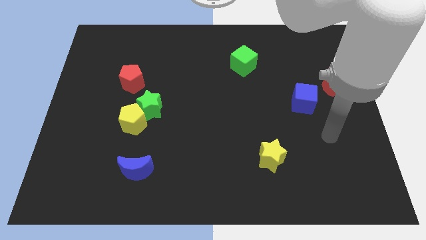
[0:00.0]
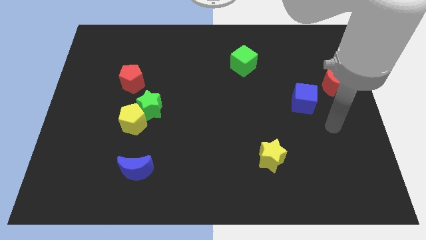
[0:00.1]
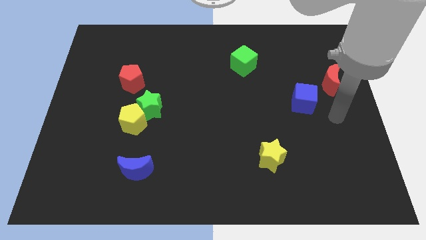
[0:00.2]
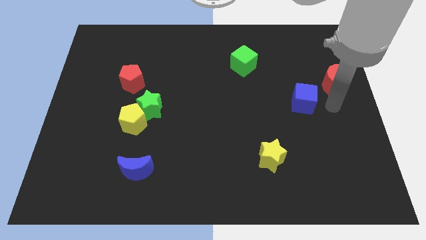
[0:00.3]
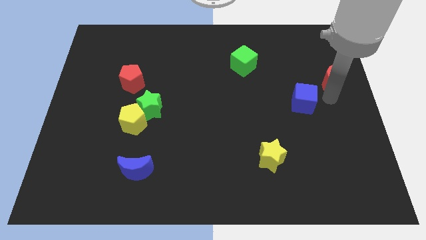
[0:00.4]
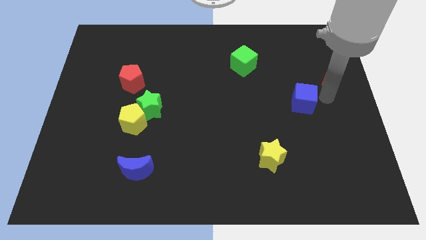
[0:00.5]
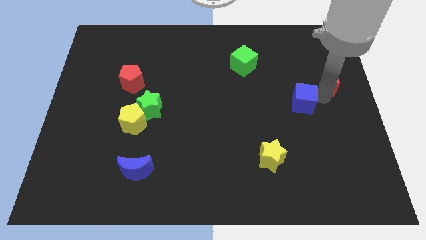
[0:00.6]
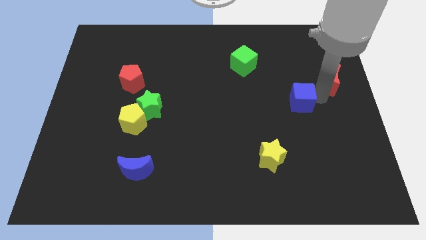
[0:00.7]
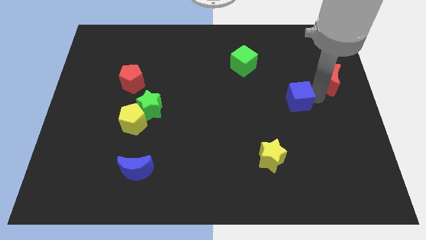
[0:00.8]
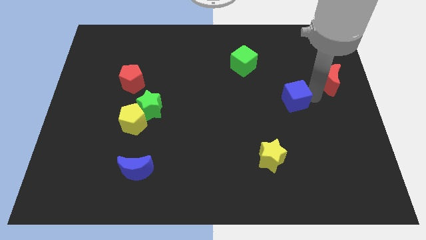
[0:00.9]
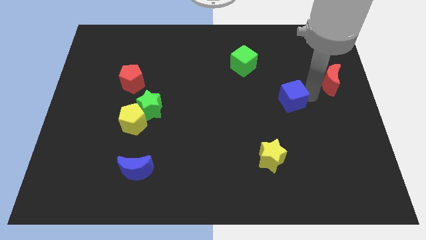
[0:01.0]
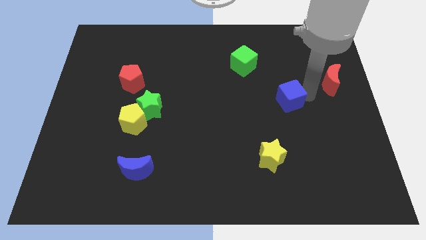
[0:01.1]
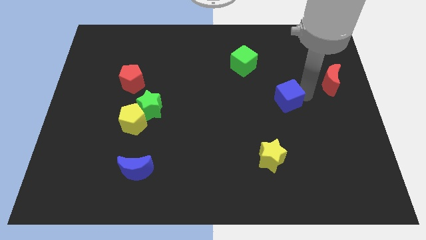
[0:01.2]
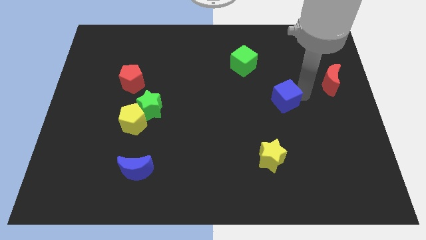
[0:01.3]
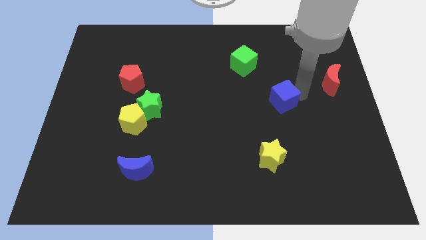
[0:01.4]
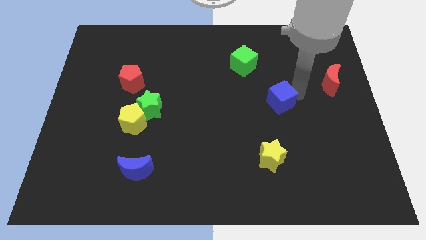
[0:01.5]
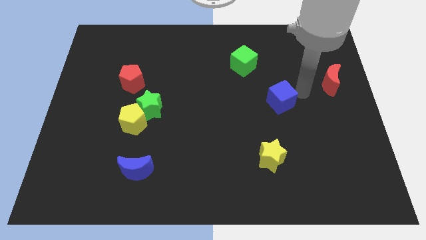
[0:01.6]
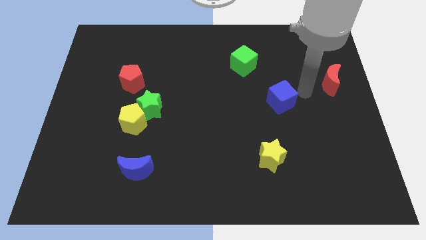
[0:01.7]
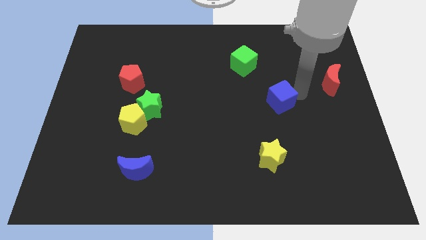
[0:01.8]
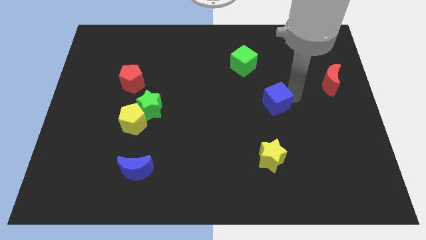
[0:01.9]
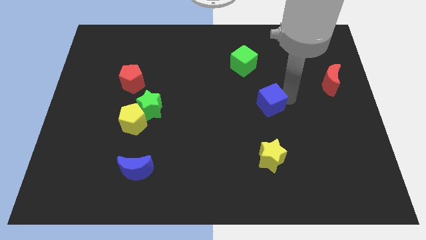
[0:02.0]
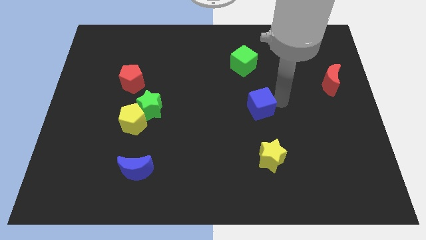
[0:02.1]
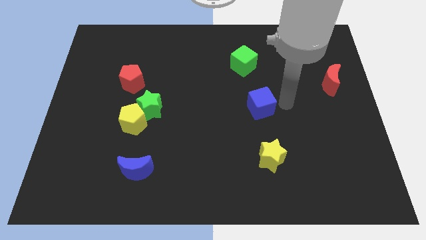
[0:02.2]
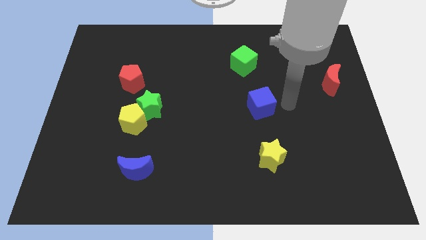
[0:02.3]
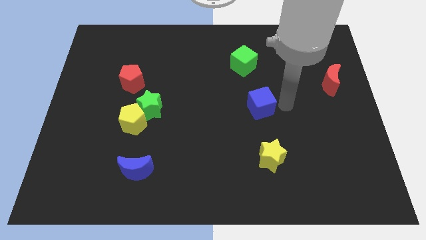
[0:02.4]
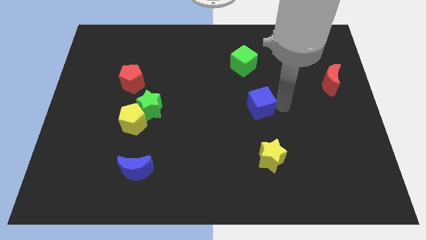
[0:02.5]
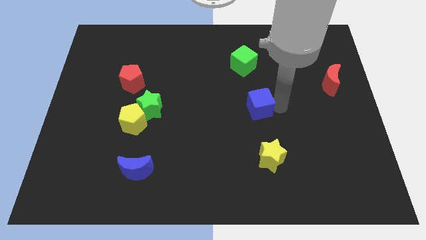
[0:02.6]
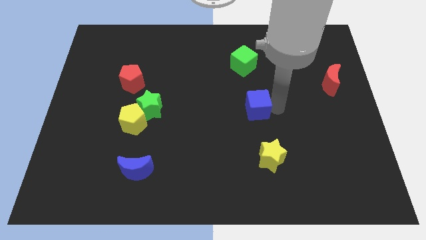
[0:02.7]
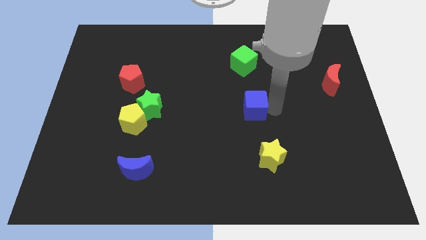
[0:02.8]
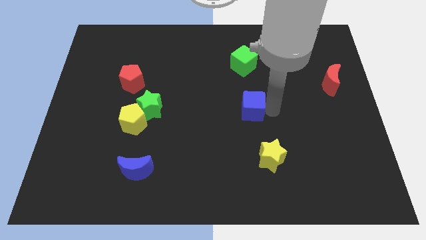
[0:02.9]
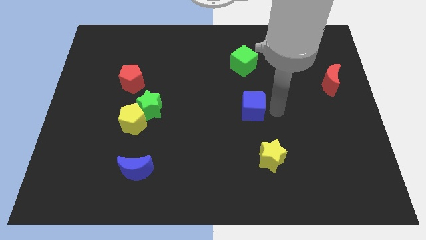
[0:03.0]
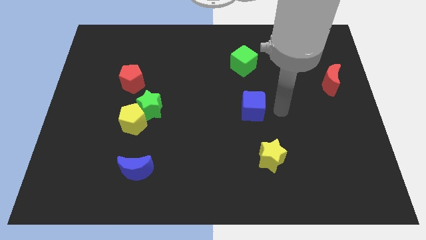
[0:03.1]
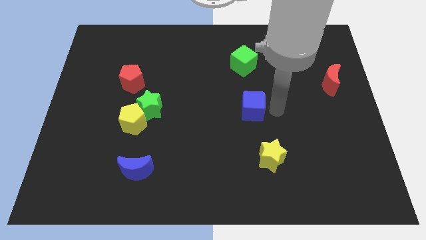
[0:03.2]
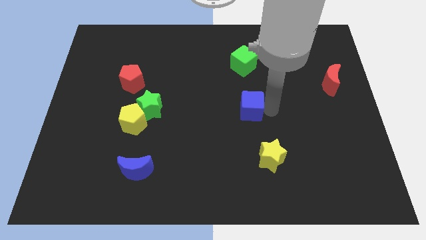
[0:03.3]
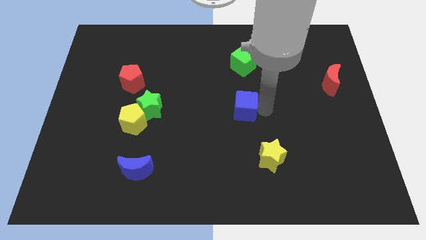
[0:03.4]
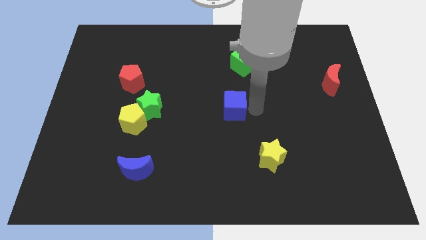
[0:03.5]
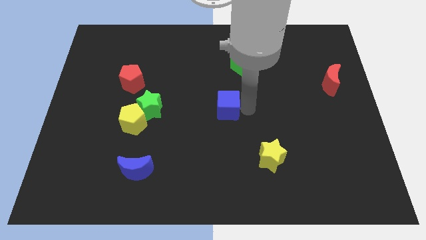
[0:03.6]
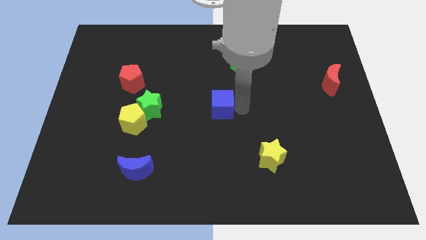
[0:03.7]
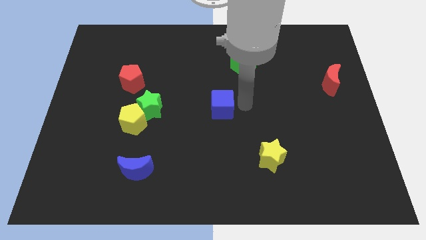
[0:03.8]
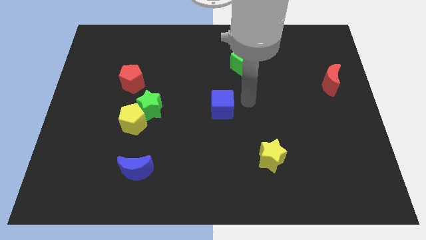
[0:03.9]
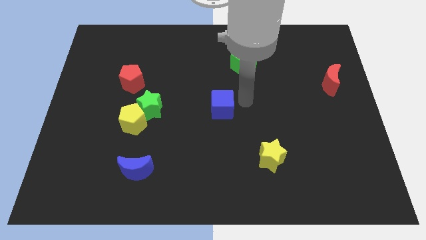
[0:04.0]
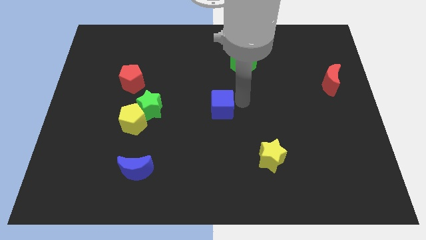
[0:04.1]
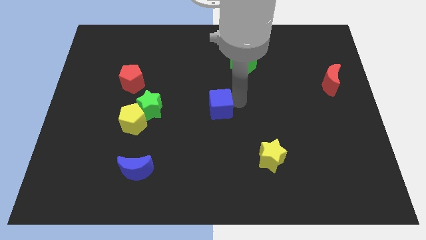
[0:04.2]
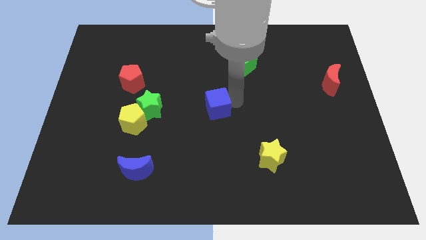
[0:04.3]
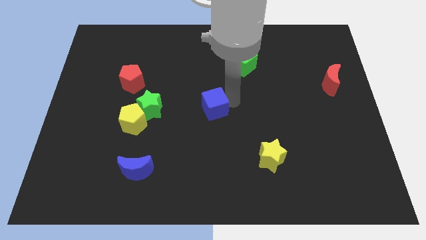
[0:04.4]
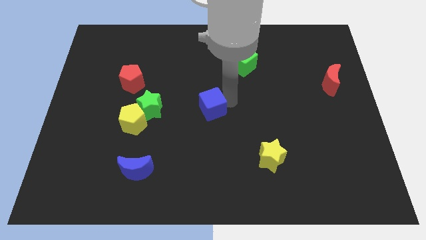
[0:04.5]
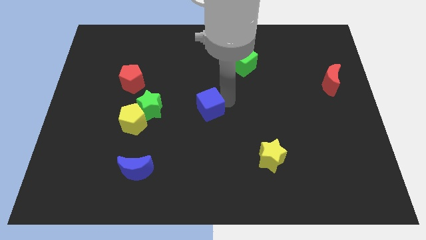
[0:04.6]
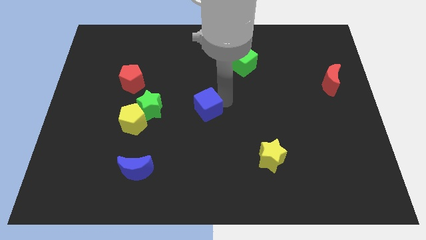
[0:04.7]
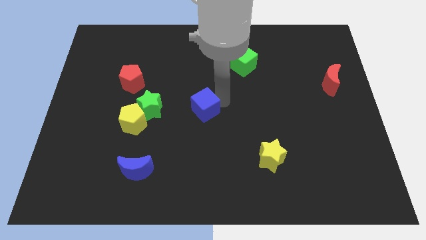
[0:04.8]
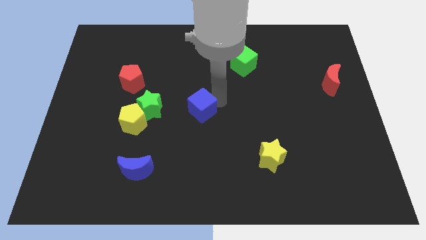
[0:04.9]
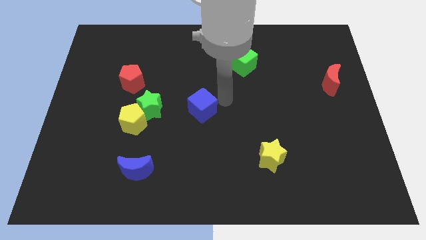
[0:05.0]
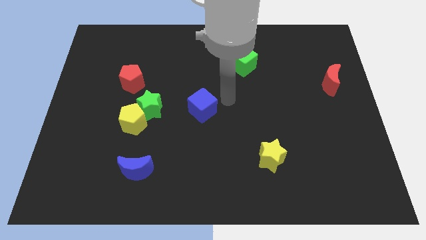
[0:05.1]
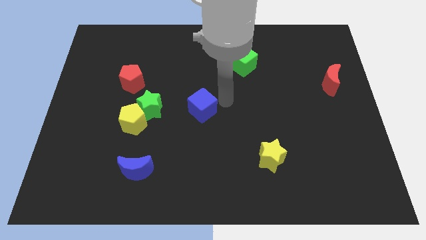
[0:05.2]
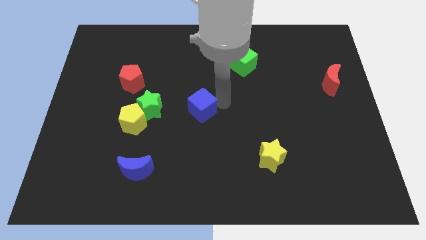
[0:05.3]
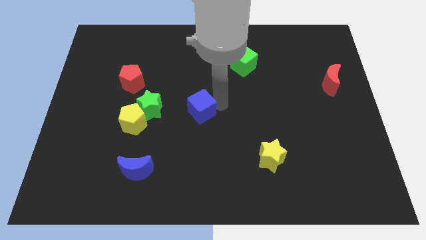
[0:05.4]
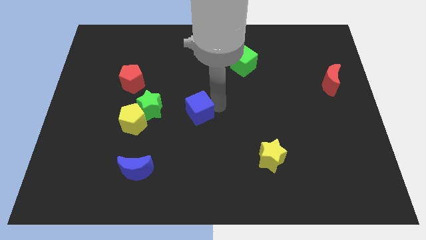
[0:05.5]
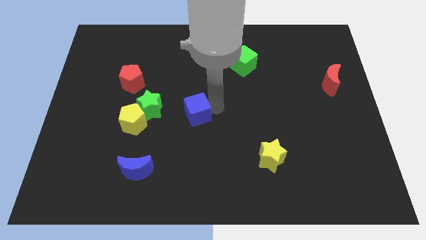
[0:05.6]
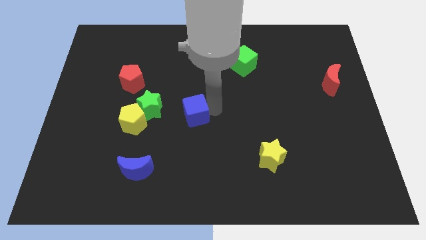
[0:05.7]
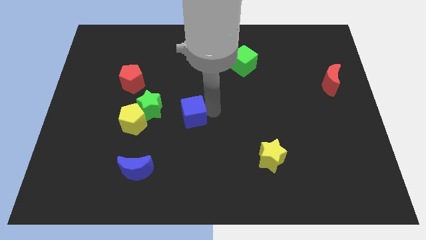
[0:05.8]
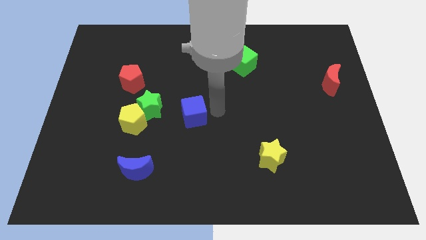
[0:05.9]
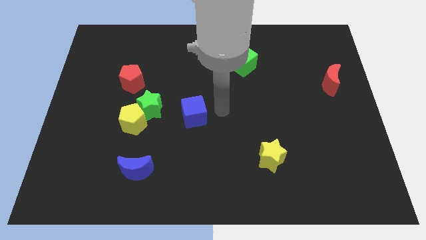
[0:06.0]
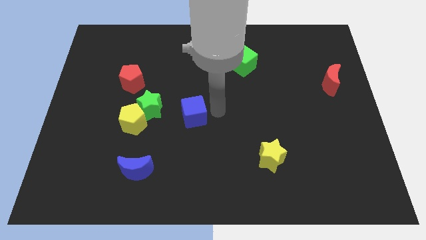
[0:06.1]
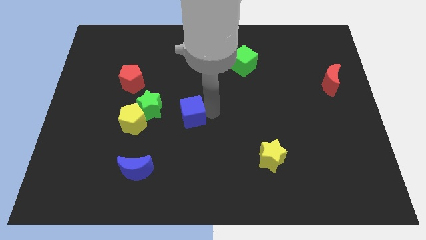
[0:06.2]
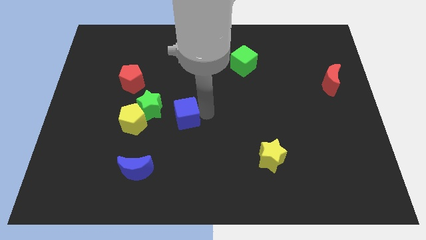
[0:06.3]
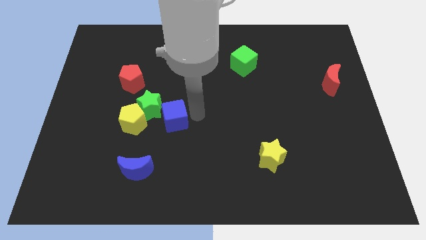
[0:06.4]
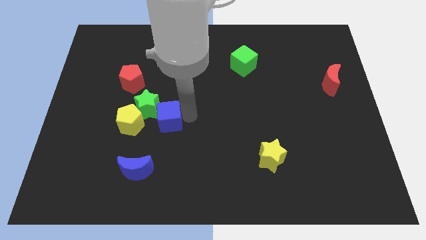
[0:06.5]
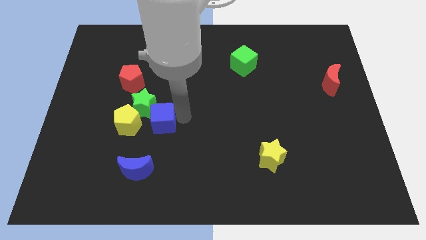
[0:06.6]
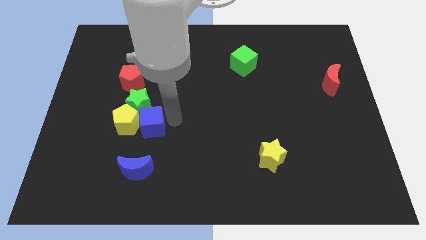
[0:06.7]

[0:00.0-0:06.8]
move the blue cube close to the yellow pentagon
